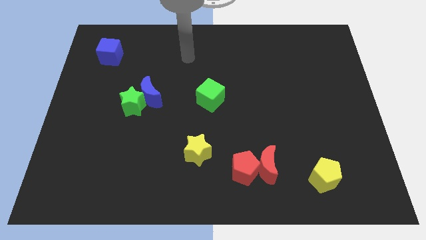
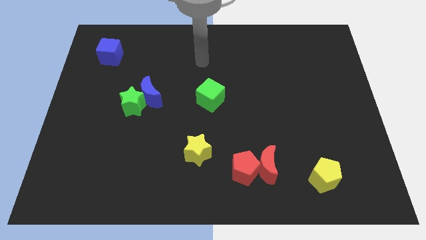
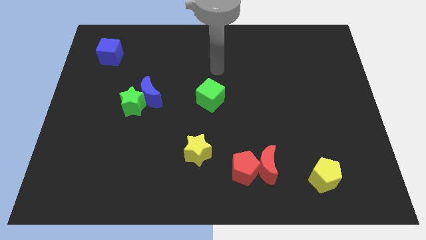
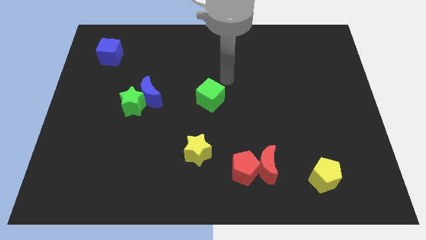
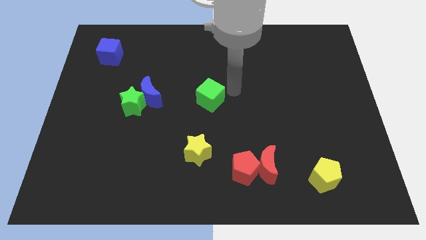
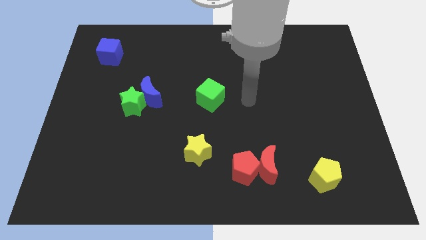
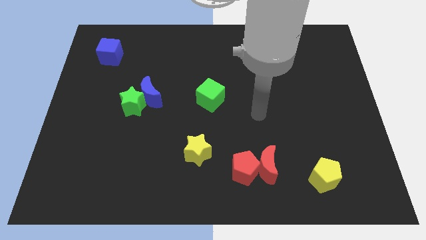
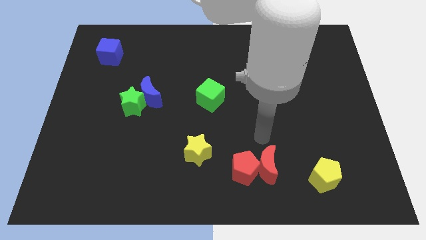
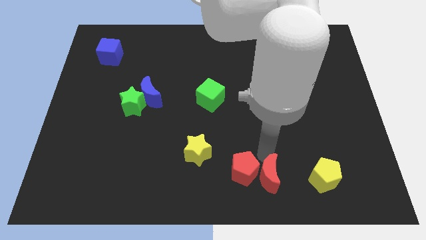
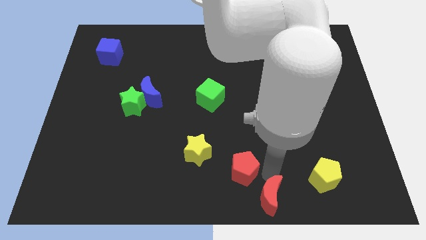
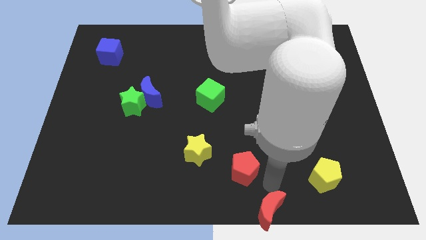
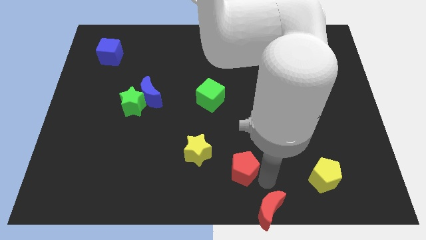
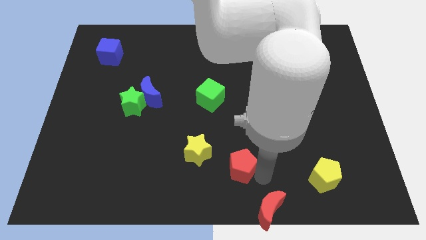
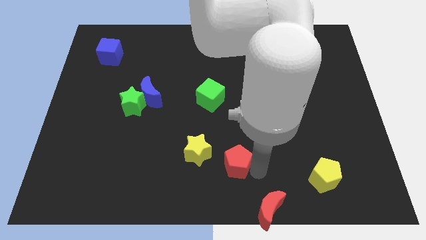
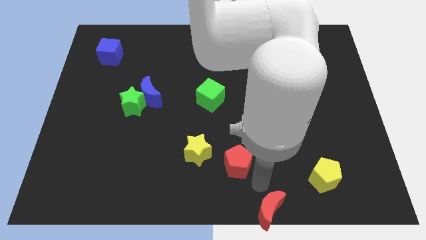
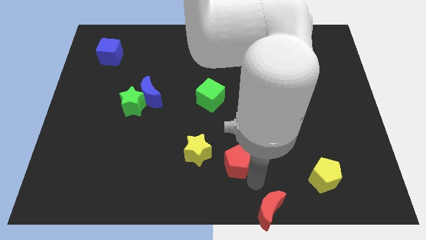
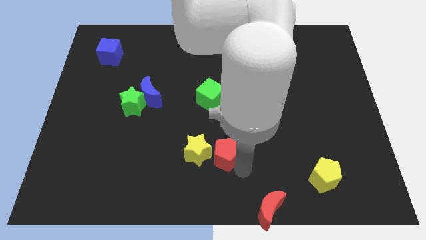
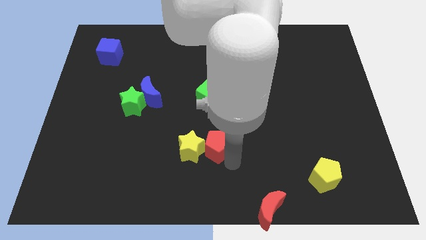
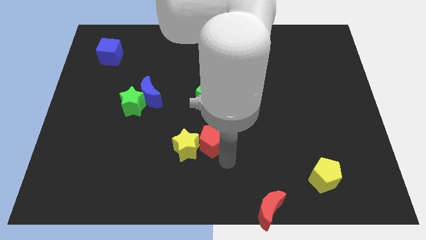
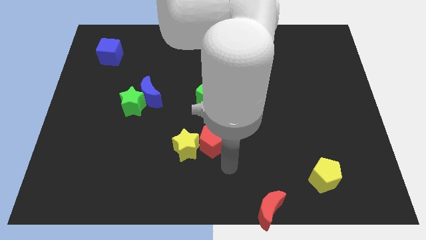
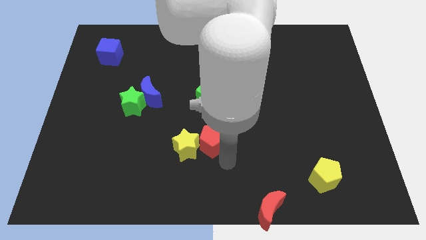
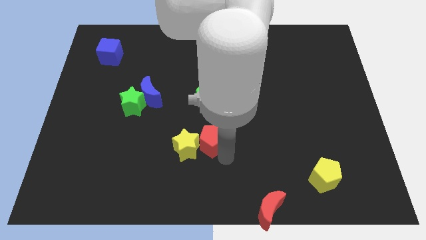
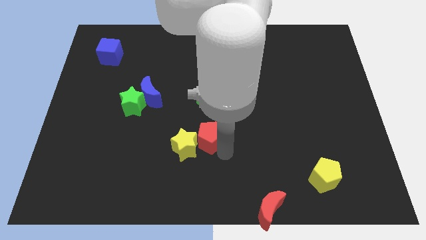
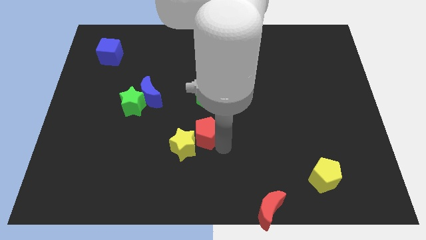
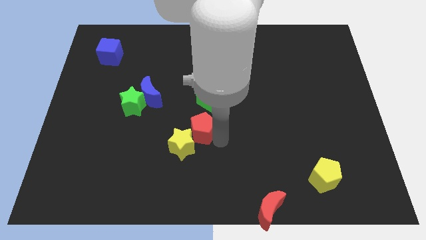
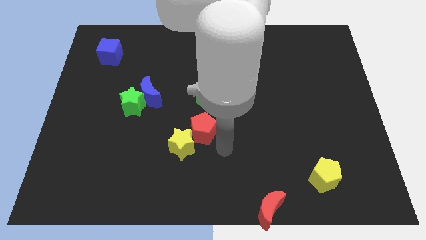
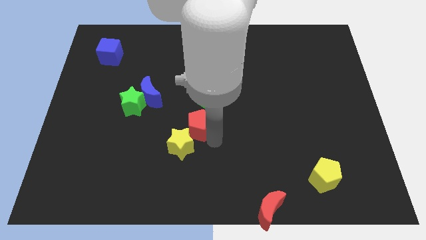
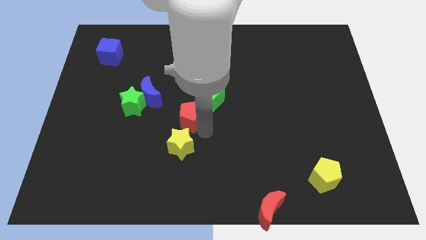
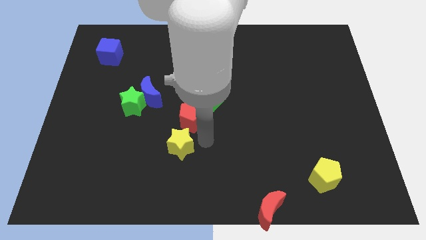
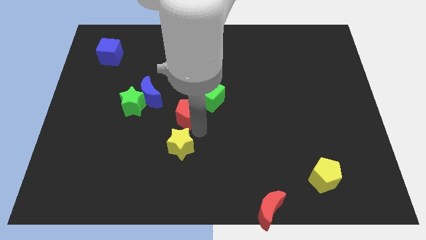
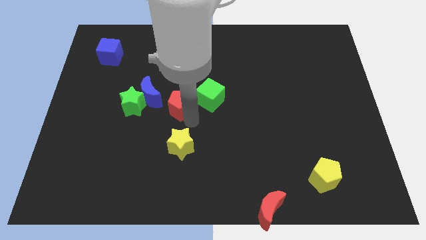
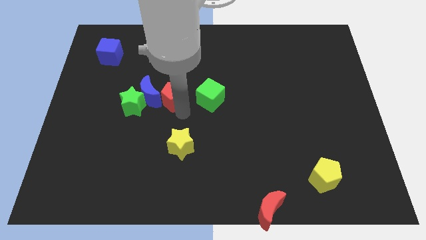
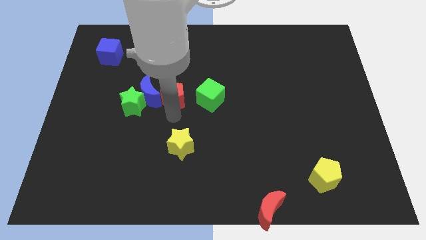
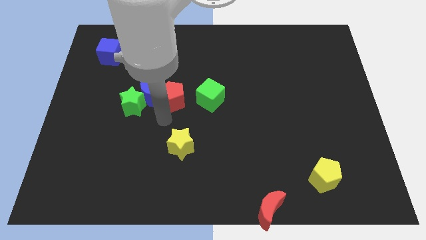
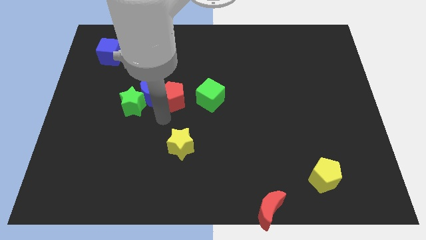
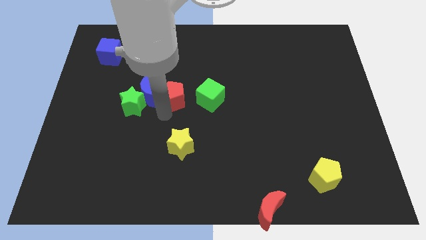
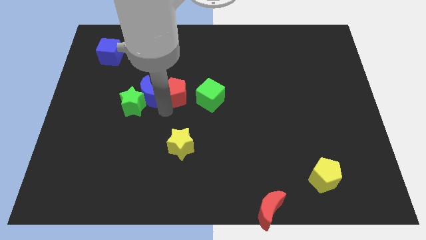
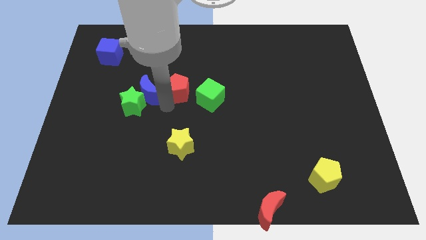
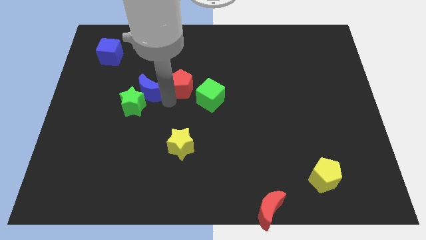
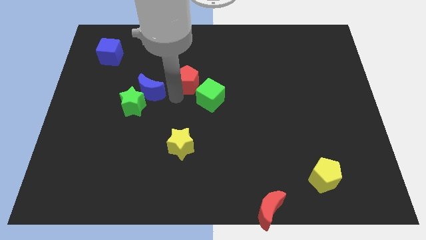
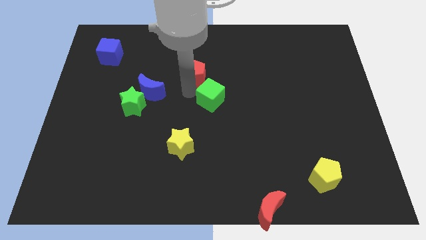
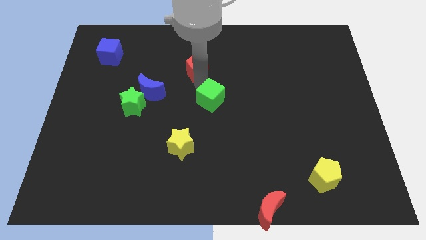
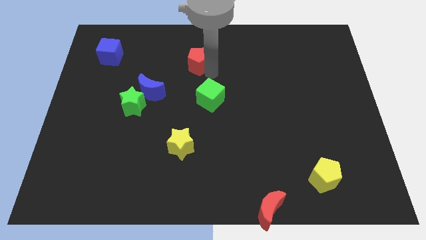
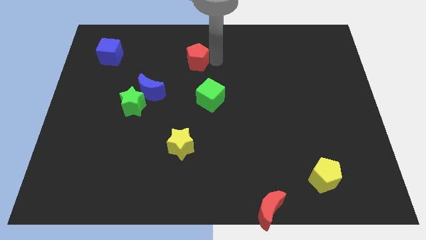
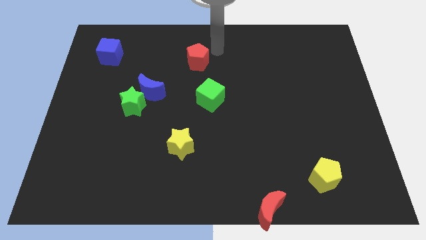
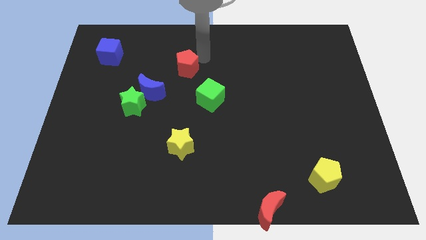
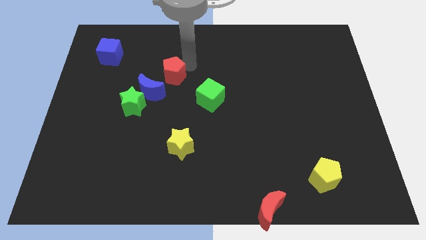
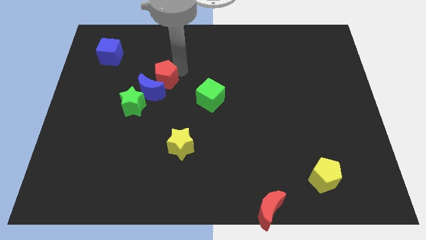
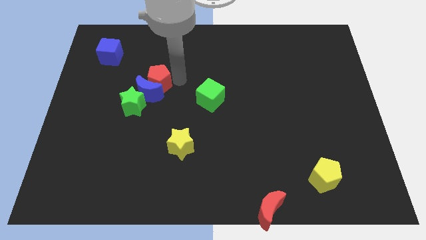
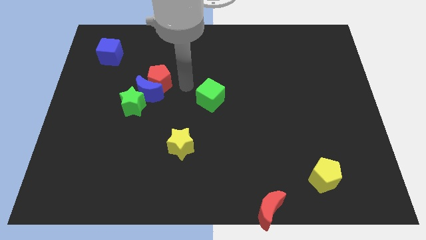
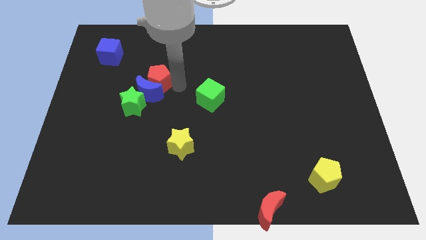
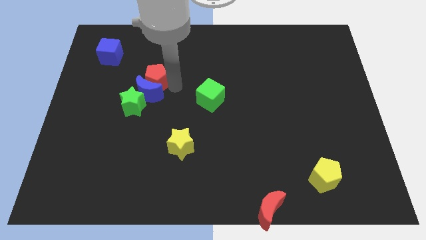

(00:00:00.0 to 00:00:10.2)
move the red pentagon diagonally up and to the left of the blue moon

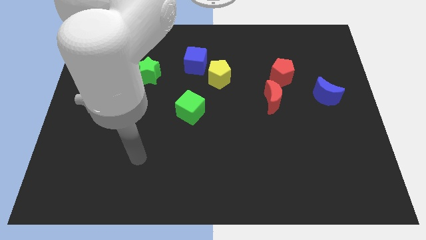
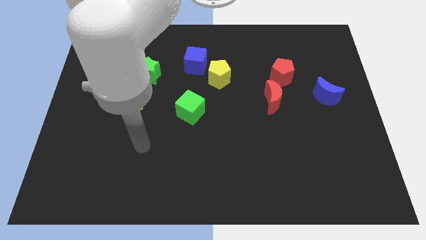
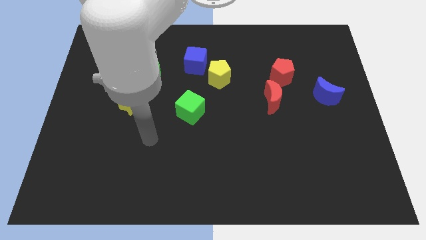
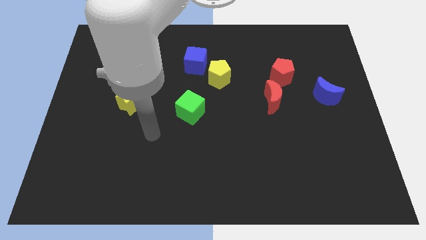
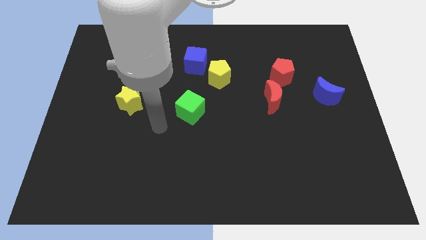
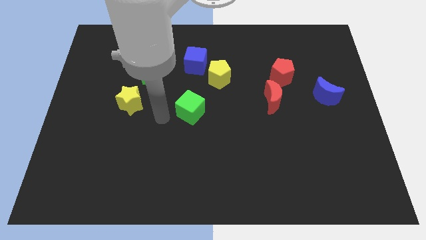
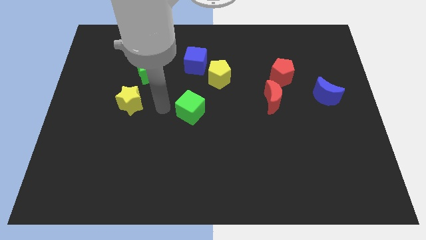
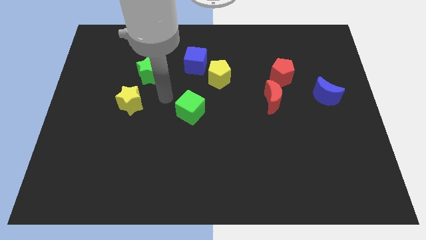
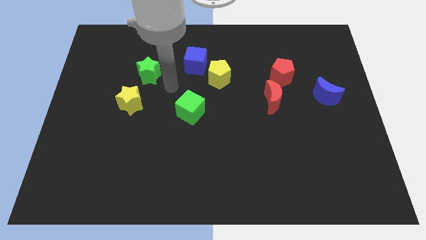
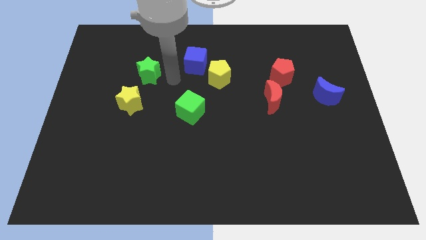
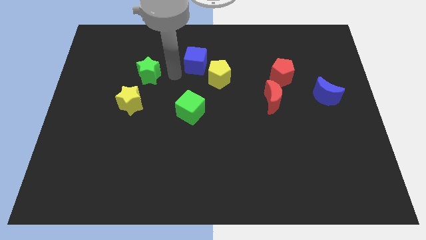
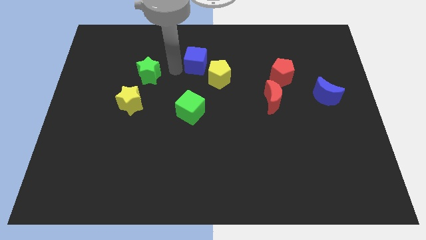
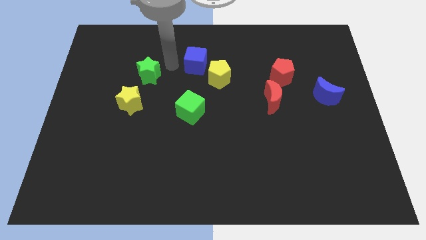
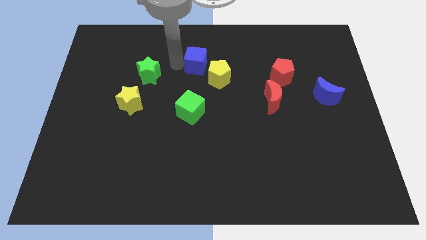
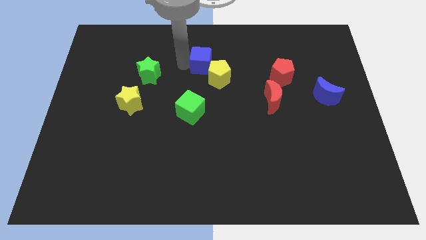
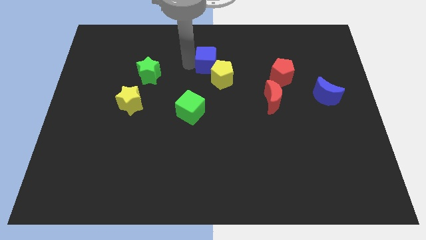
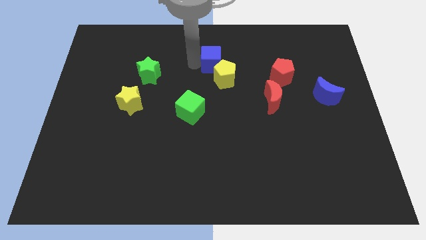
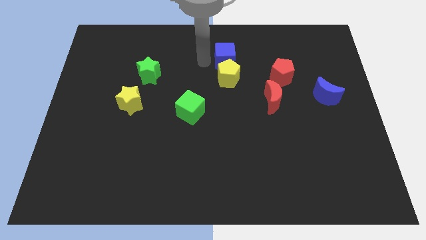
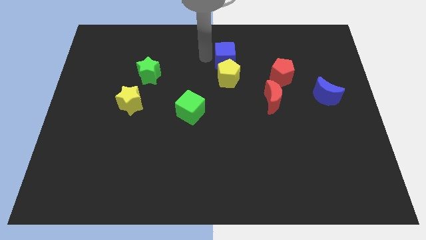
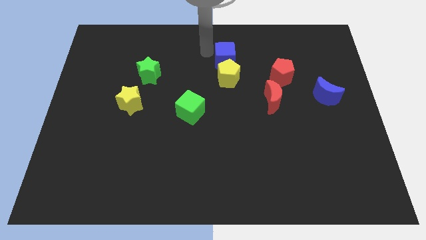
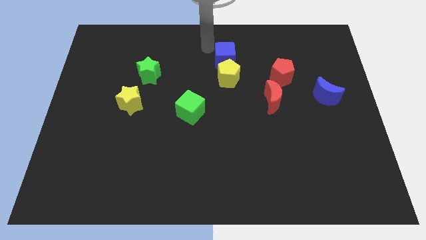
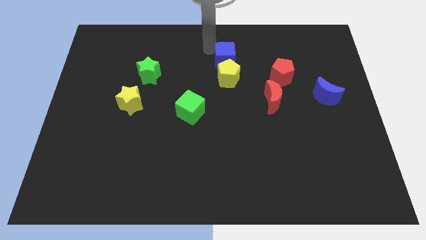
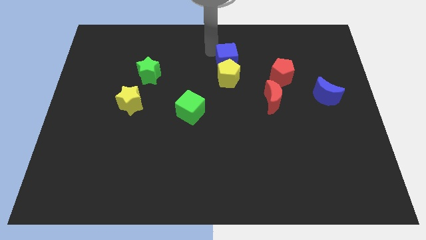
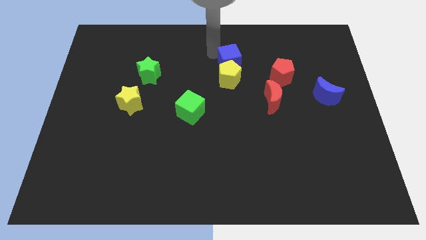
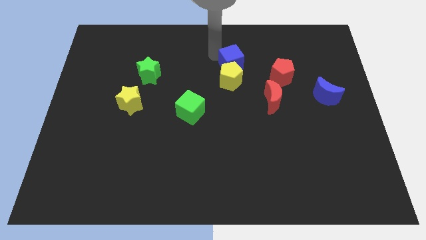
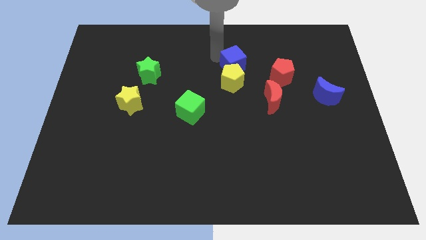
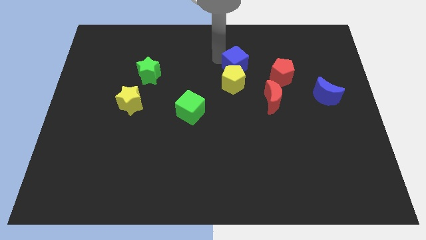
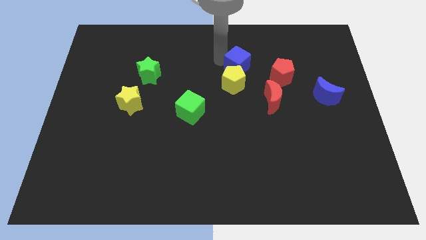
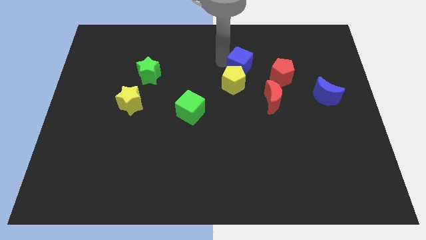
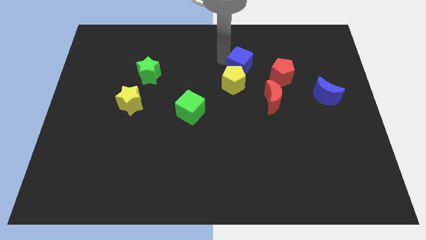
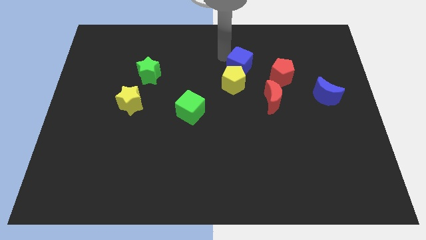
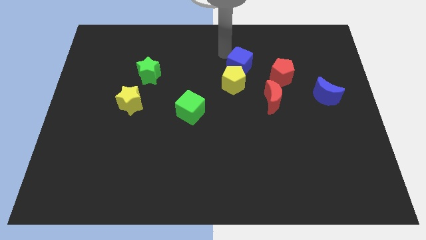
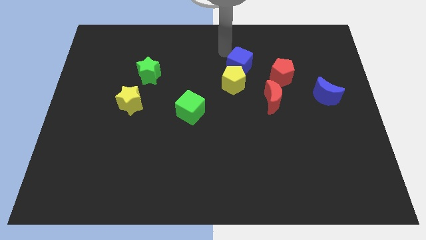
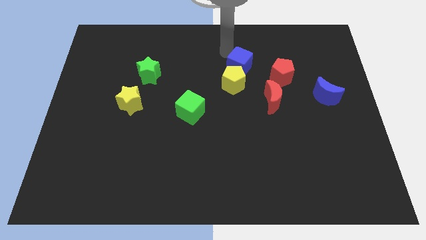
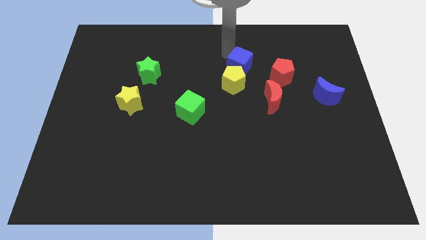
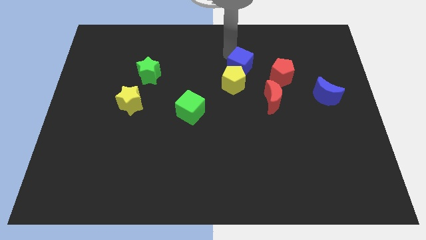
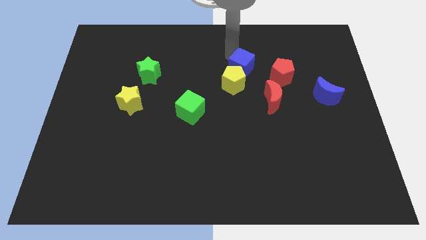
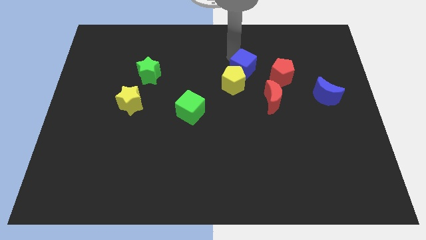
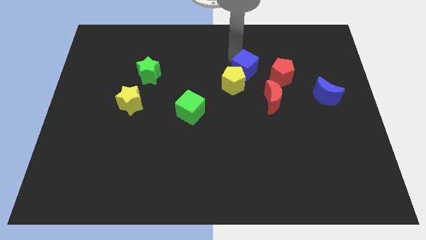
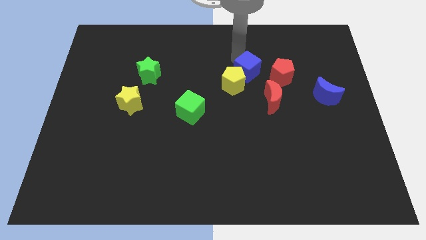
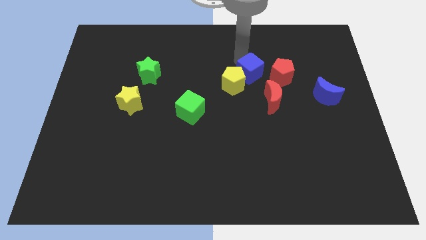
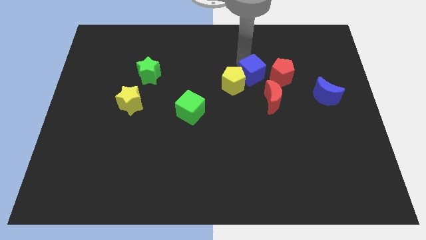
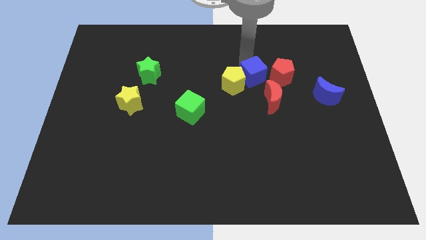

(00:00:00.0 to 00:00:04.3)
put the blue cube to the bottom left side of the red pentagon
